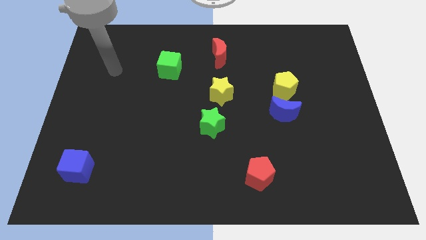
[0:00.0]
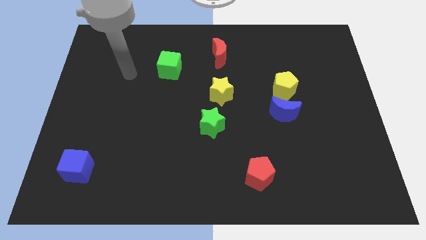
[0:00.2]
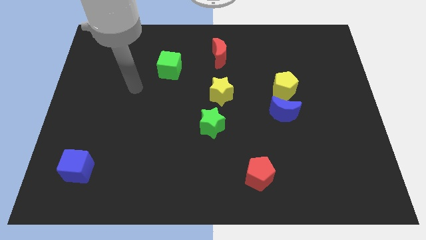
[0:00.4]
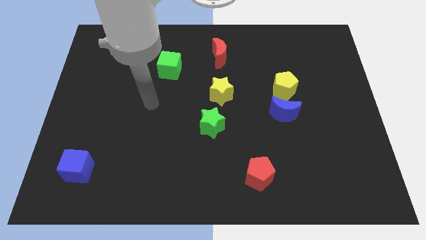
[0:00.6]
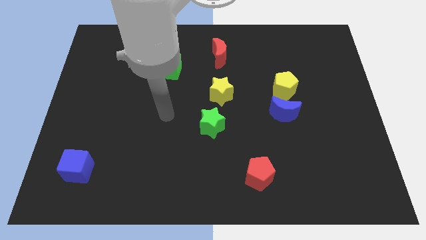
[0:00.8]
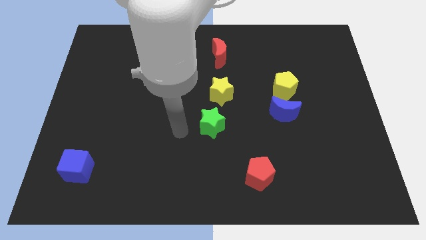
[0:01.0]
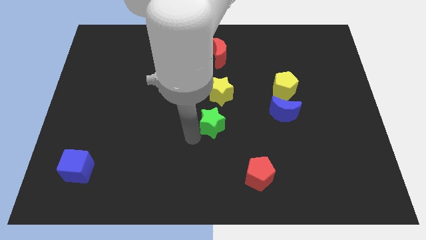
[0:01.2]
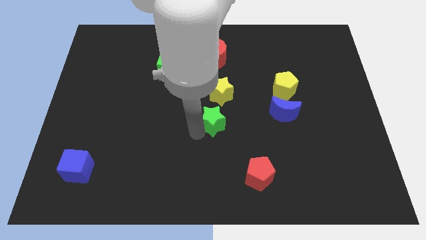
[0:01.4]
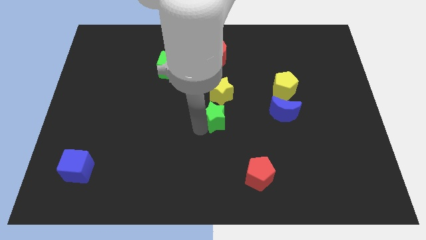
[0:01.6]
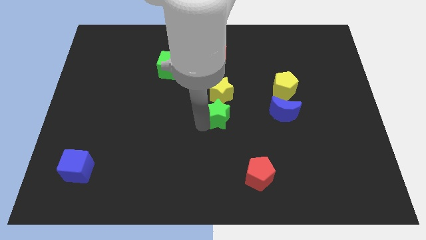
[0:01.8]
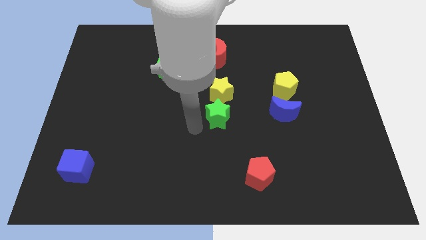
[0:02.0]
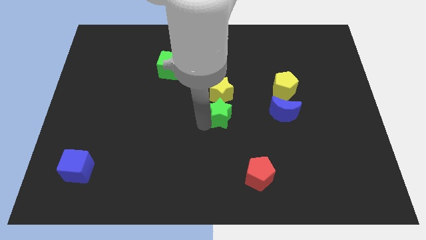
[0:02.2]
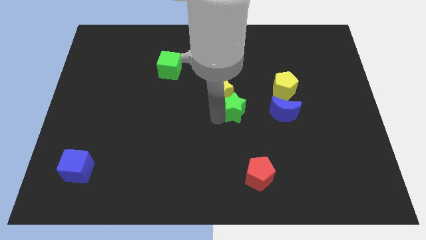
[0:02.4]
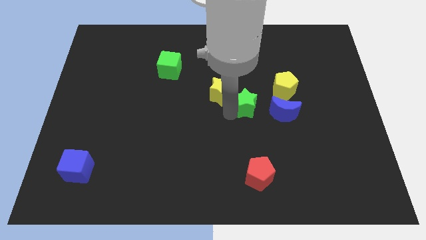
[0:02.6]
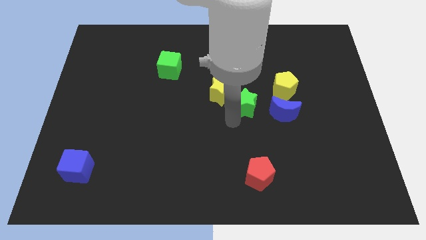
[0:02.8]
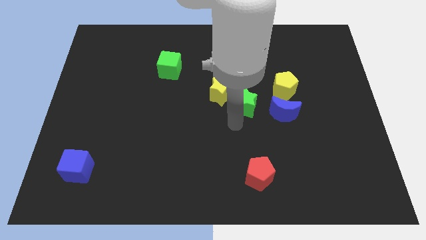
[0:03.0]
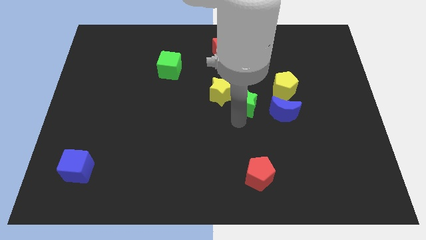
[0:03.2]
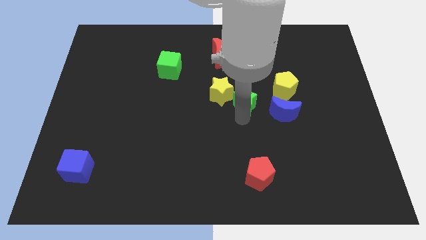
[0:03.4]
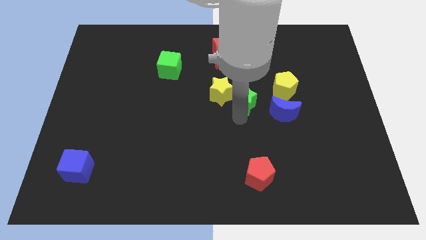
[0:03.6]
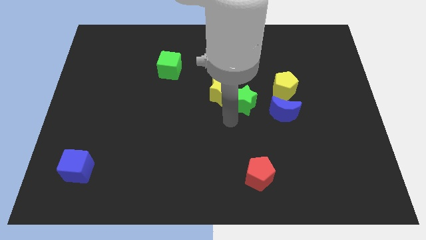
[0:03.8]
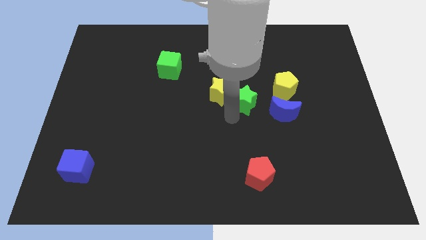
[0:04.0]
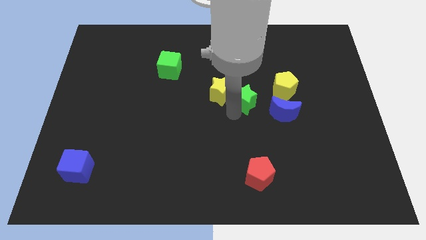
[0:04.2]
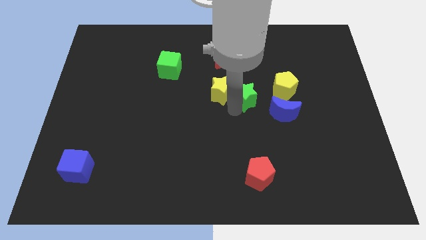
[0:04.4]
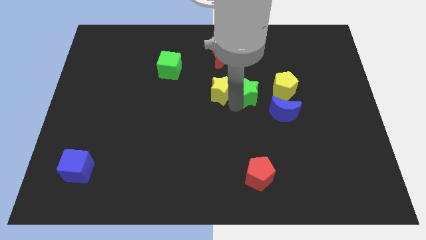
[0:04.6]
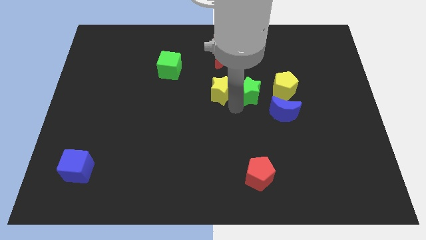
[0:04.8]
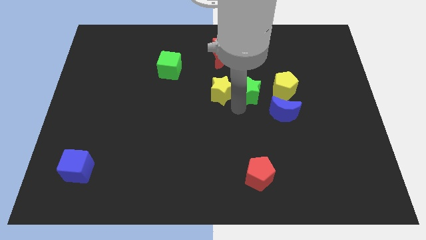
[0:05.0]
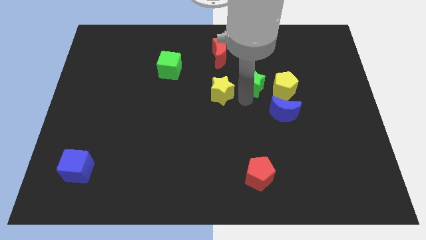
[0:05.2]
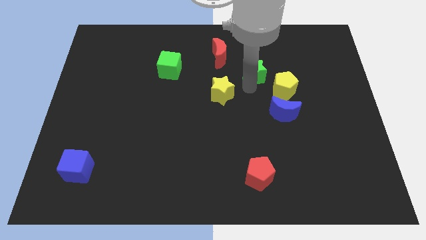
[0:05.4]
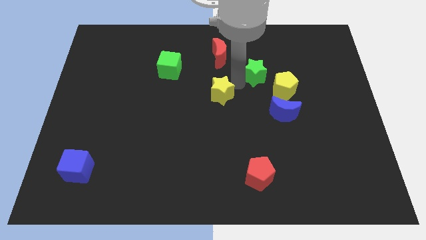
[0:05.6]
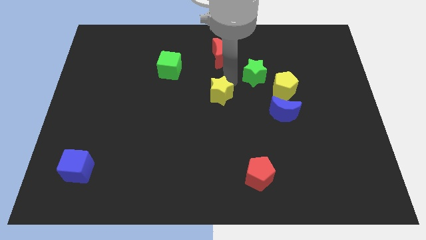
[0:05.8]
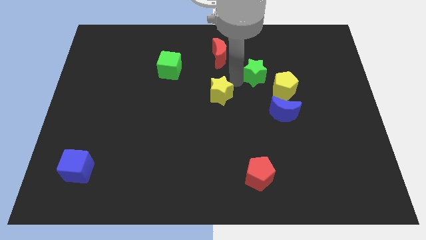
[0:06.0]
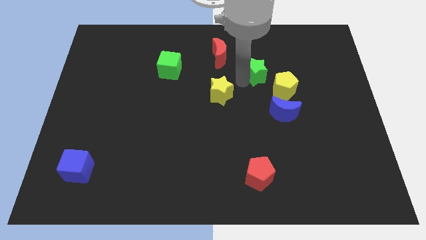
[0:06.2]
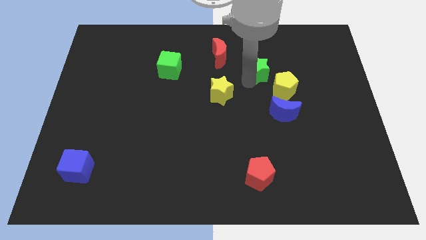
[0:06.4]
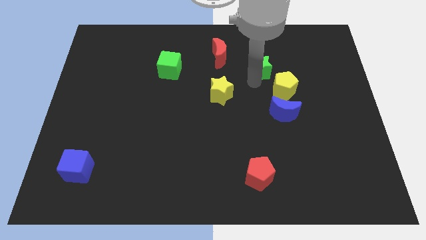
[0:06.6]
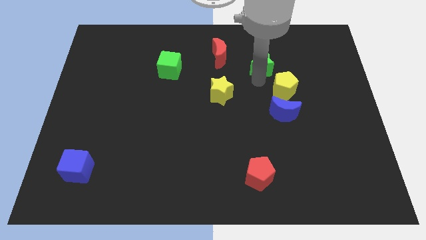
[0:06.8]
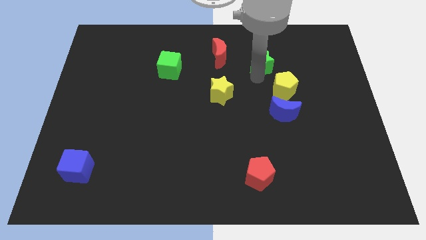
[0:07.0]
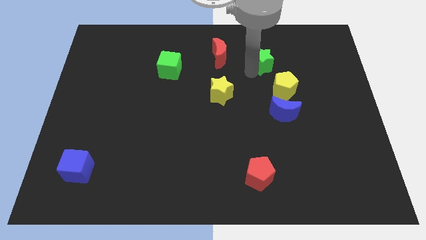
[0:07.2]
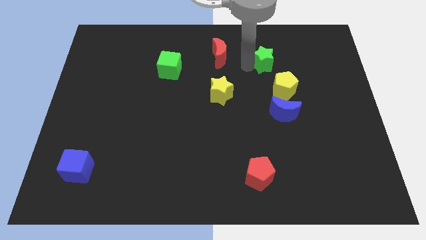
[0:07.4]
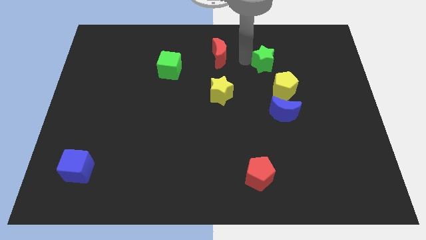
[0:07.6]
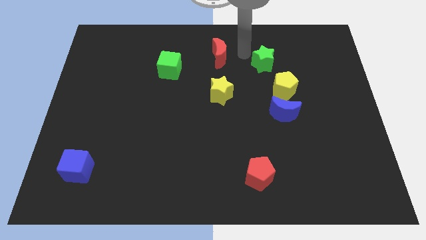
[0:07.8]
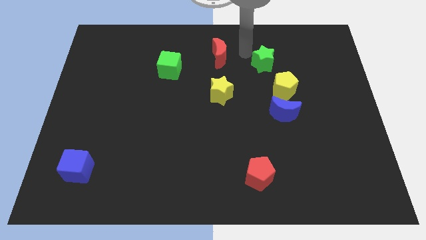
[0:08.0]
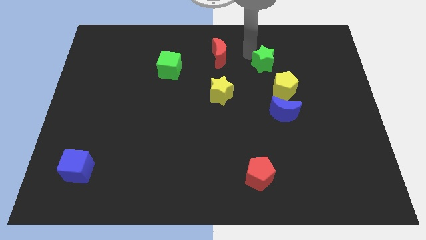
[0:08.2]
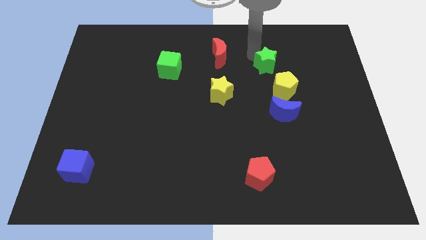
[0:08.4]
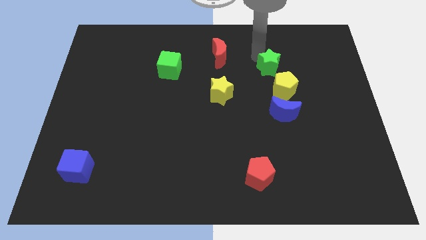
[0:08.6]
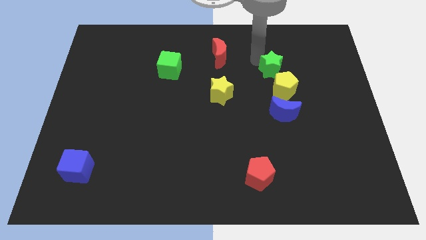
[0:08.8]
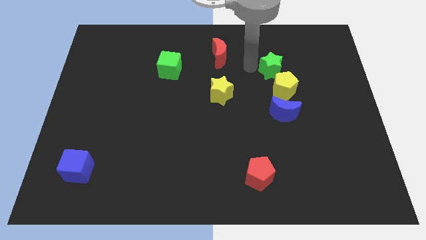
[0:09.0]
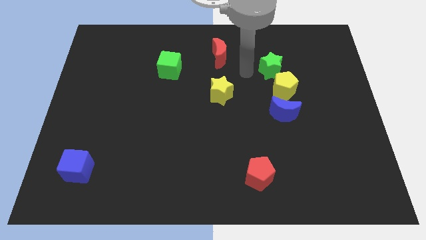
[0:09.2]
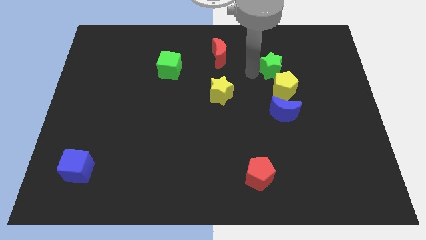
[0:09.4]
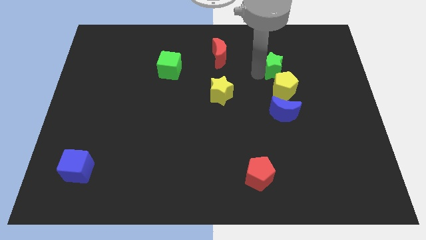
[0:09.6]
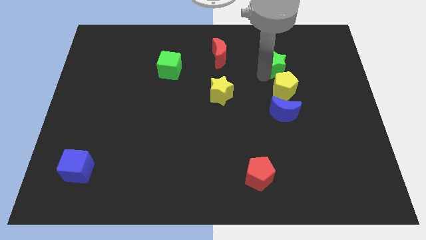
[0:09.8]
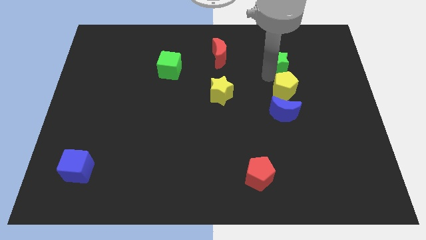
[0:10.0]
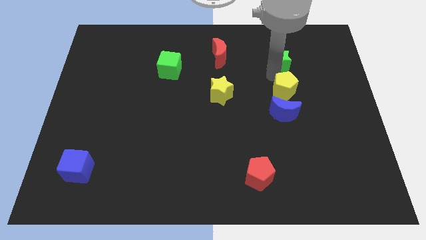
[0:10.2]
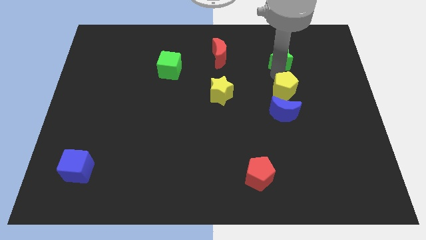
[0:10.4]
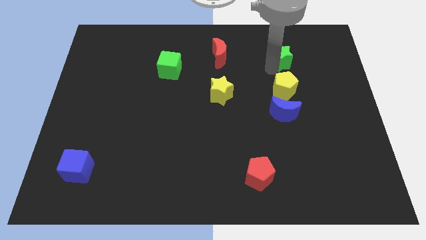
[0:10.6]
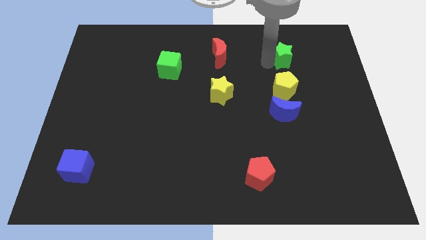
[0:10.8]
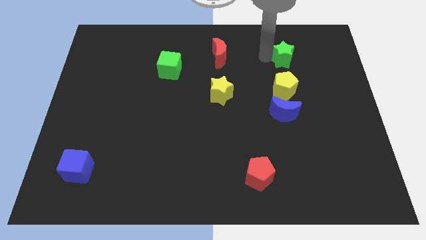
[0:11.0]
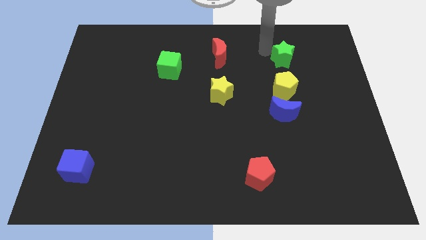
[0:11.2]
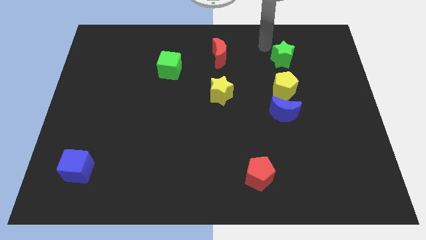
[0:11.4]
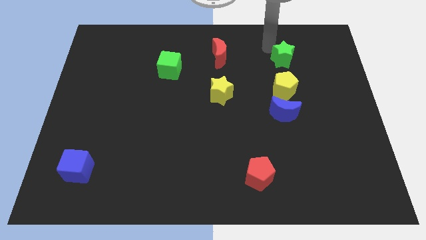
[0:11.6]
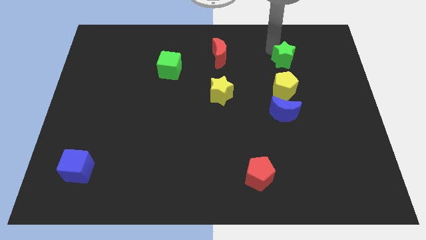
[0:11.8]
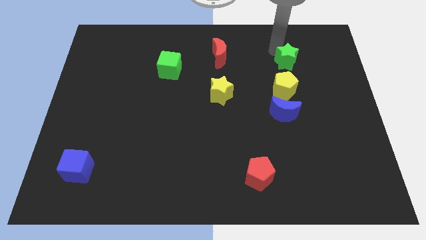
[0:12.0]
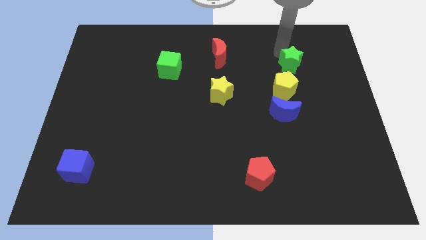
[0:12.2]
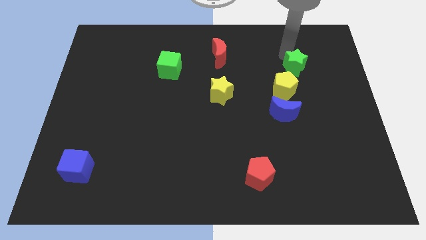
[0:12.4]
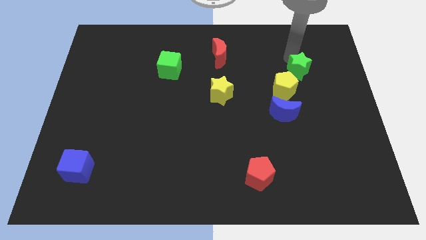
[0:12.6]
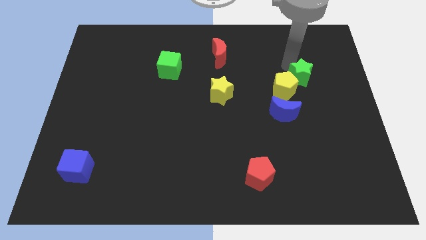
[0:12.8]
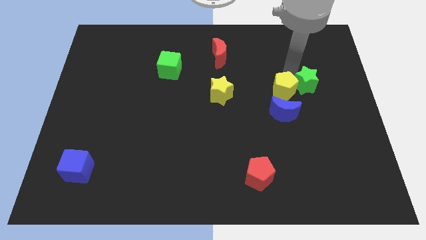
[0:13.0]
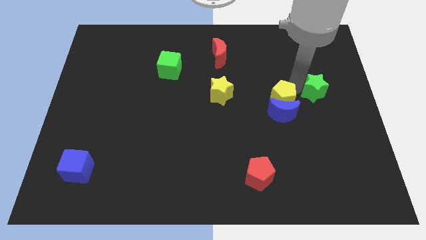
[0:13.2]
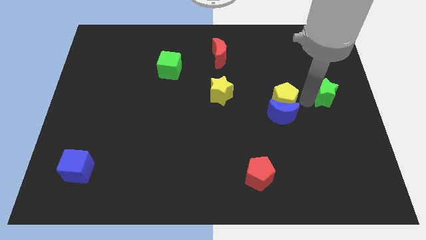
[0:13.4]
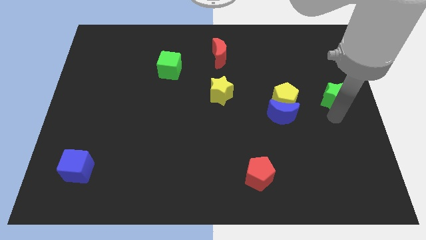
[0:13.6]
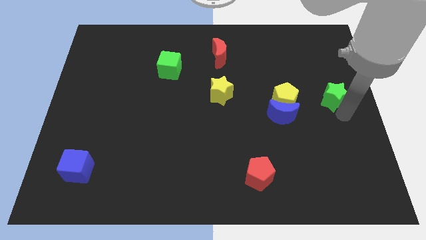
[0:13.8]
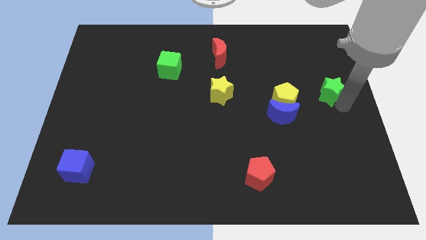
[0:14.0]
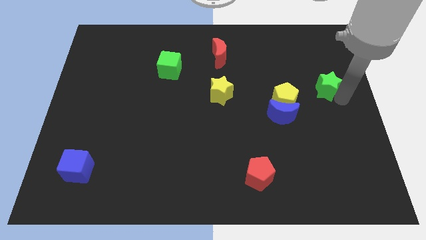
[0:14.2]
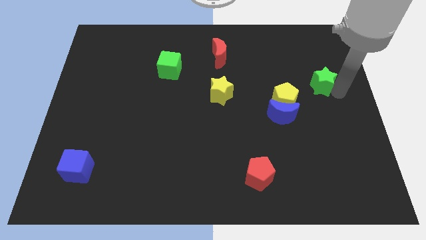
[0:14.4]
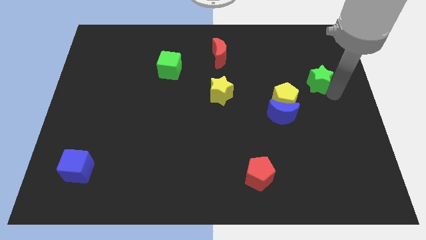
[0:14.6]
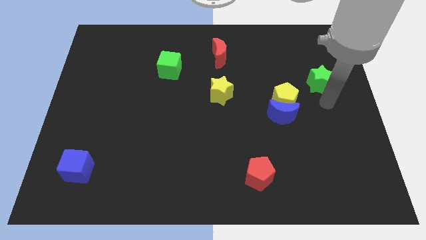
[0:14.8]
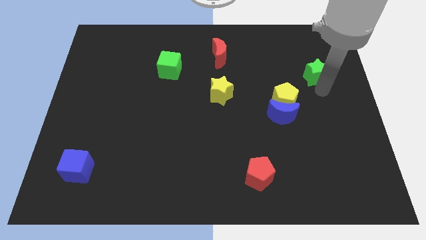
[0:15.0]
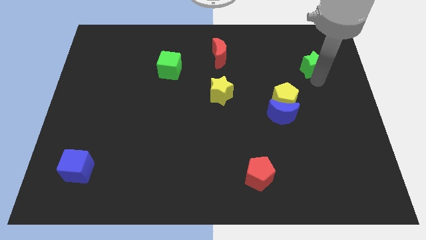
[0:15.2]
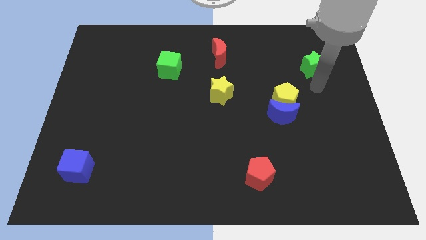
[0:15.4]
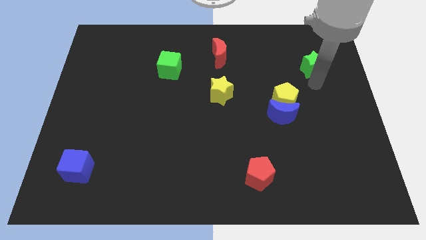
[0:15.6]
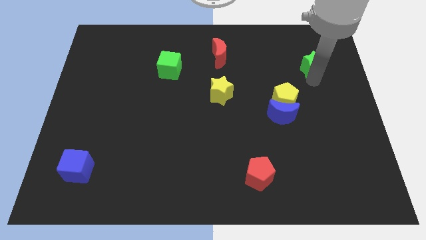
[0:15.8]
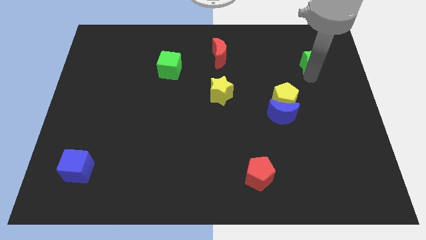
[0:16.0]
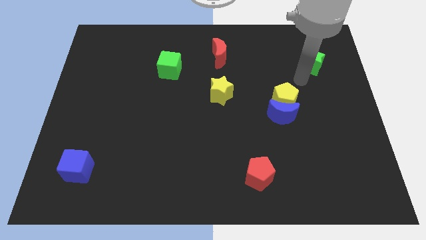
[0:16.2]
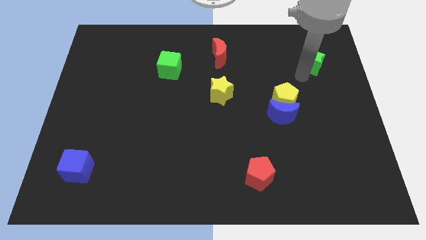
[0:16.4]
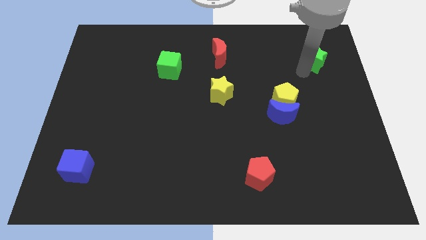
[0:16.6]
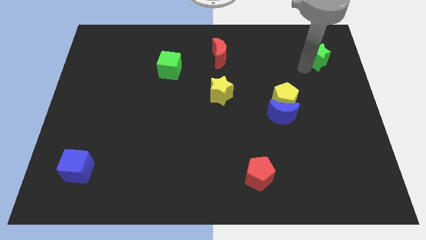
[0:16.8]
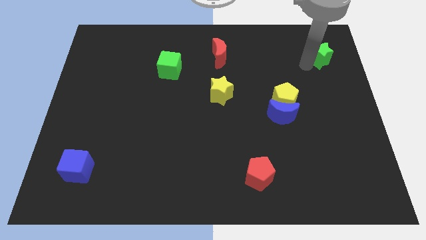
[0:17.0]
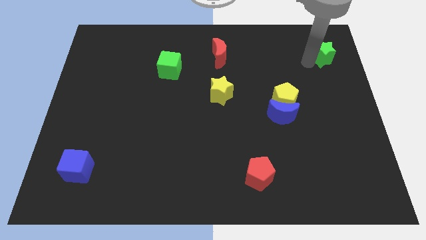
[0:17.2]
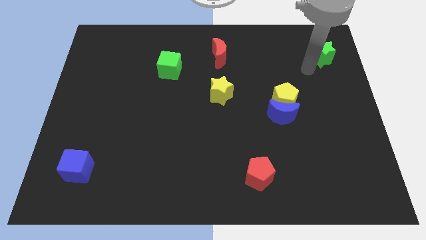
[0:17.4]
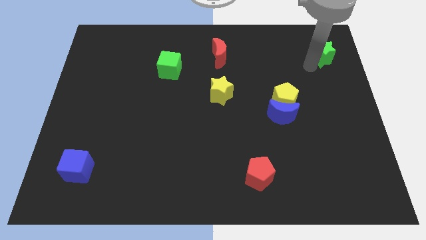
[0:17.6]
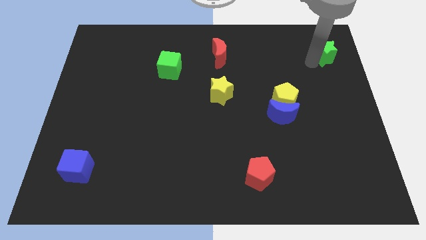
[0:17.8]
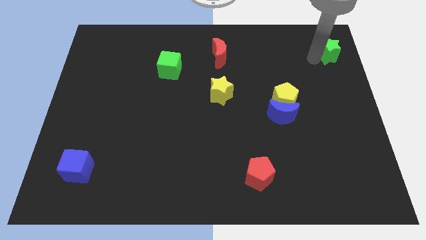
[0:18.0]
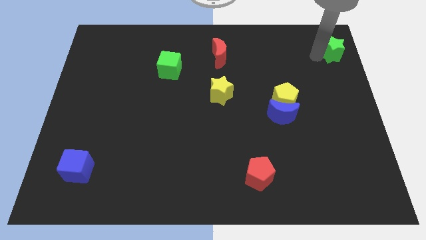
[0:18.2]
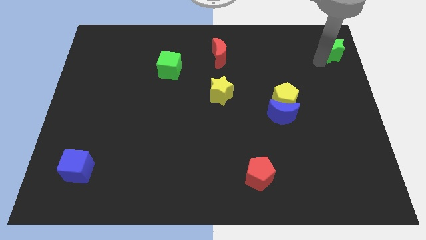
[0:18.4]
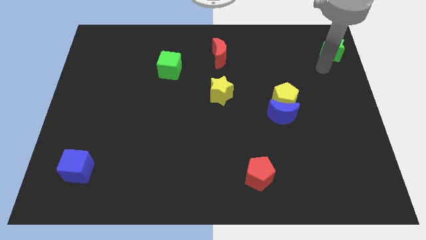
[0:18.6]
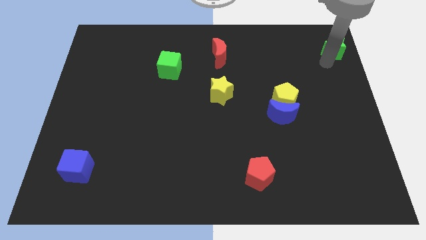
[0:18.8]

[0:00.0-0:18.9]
slide the green star to the top right
